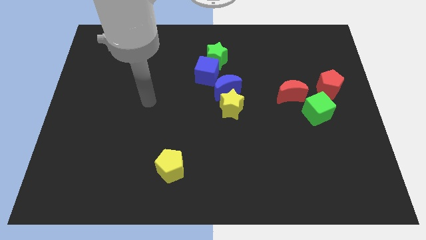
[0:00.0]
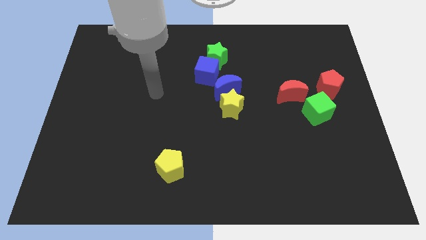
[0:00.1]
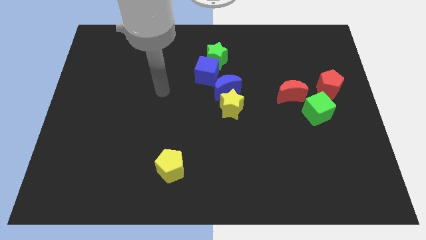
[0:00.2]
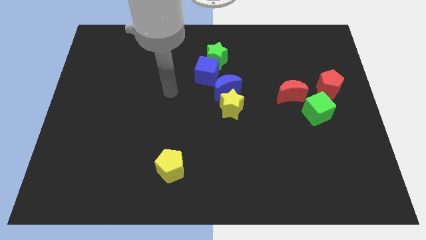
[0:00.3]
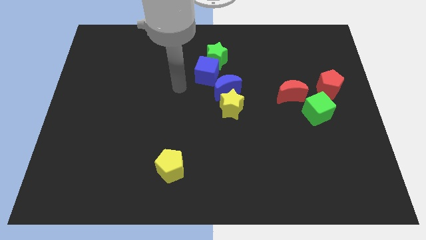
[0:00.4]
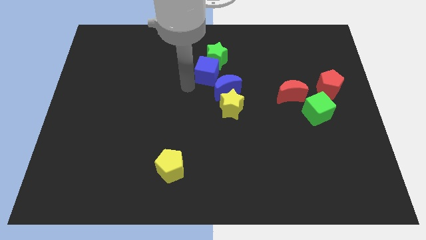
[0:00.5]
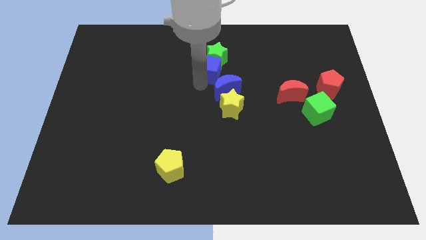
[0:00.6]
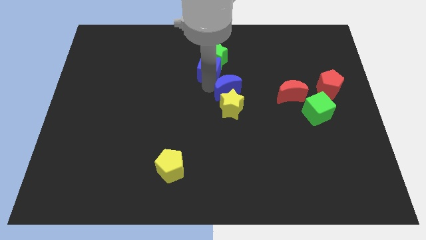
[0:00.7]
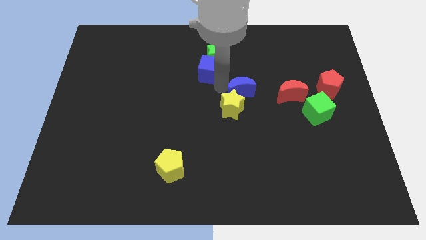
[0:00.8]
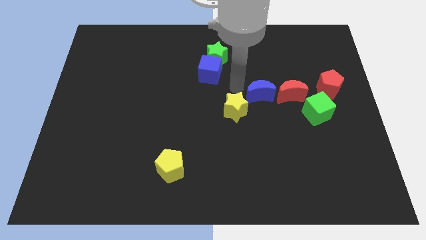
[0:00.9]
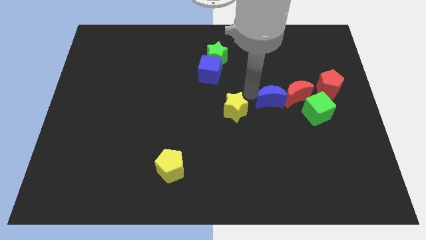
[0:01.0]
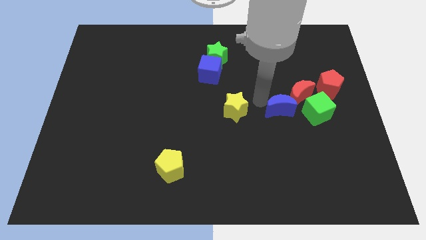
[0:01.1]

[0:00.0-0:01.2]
pull the yellow star apart from the blue moon

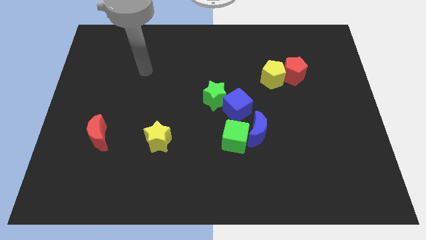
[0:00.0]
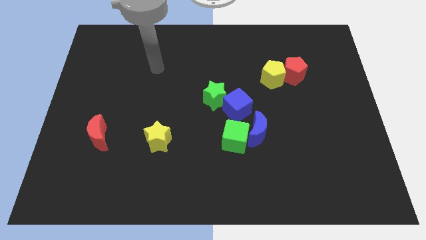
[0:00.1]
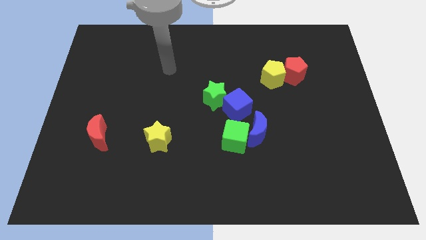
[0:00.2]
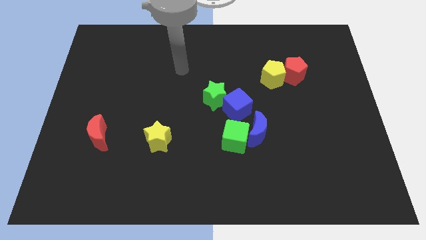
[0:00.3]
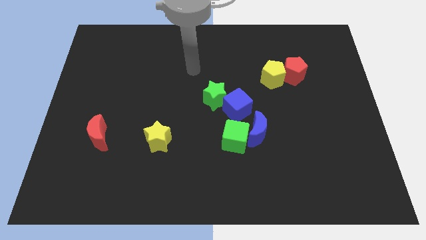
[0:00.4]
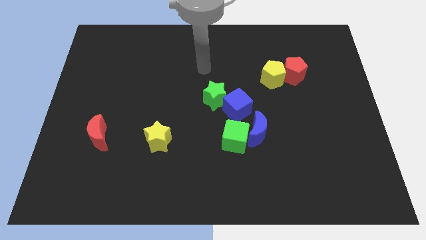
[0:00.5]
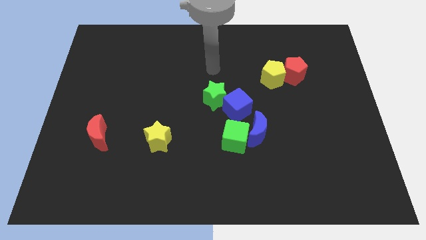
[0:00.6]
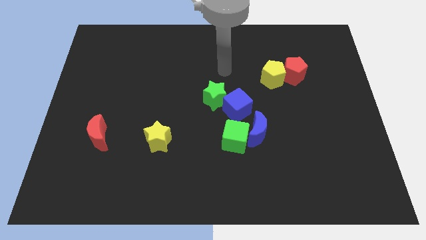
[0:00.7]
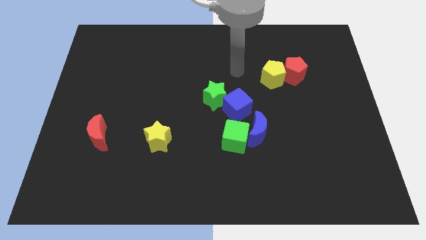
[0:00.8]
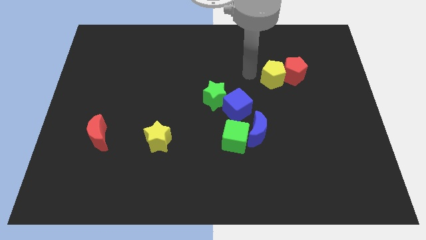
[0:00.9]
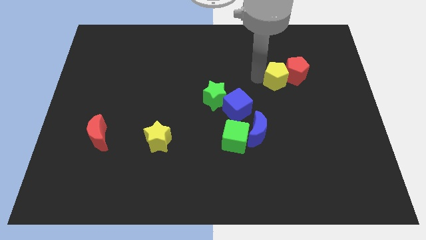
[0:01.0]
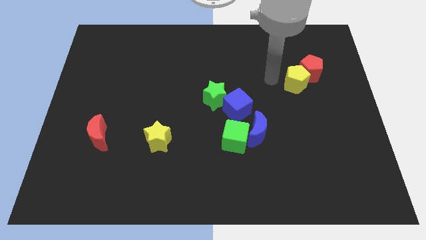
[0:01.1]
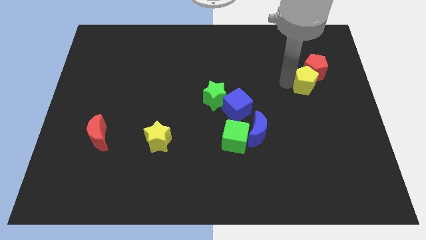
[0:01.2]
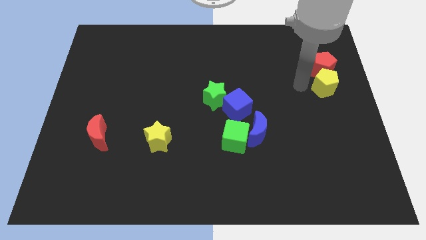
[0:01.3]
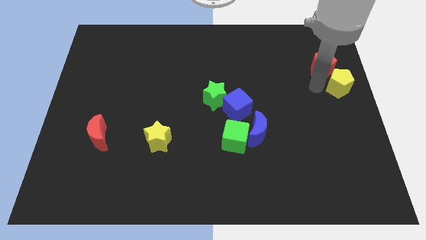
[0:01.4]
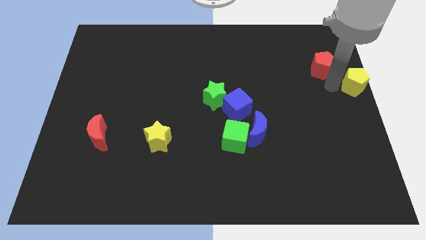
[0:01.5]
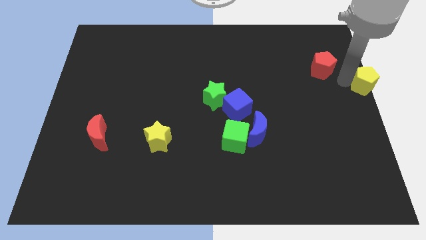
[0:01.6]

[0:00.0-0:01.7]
separate the red pentagon from the yellow pentagon

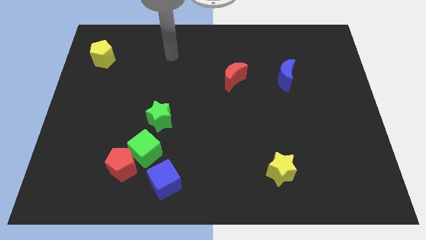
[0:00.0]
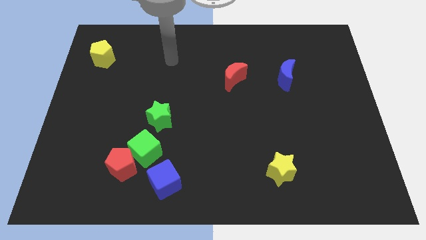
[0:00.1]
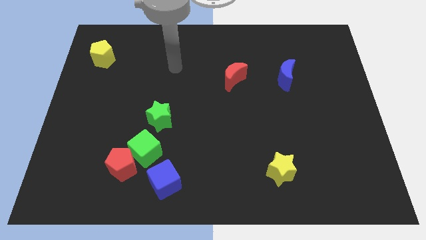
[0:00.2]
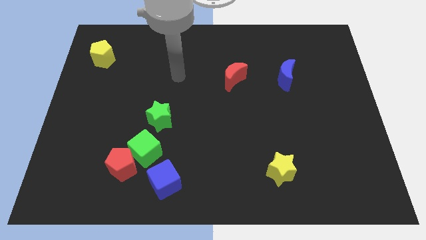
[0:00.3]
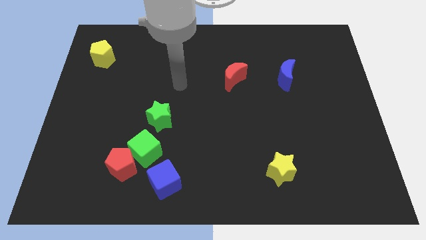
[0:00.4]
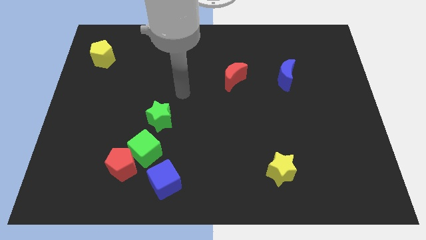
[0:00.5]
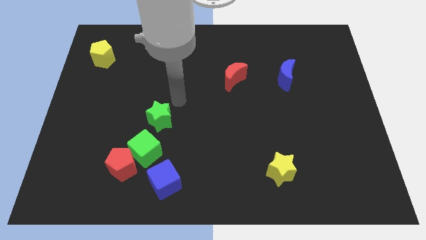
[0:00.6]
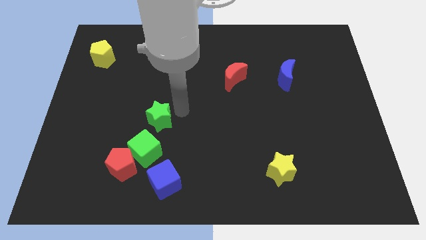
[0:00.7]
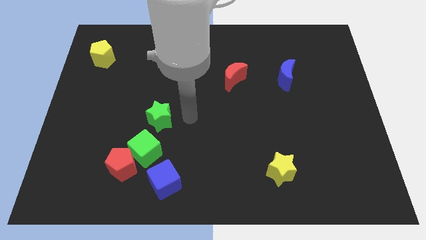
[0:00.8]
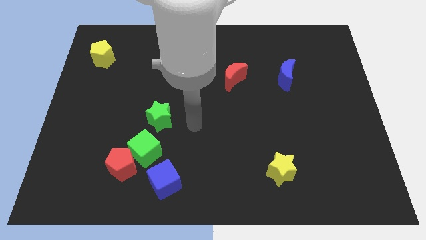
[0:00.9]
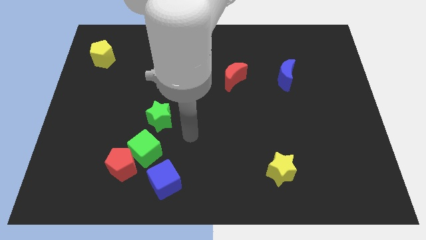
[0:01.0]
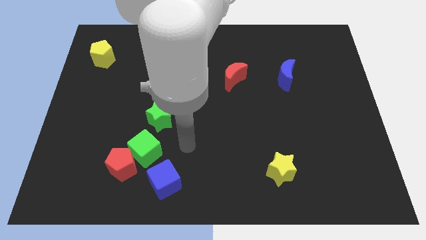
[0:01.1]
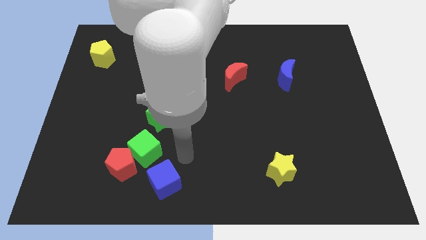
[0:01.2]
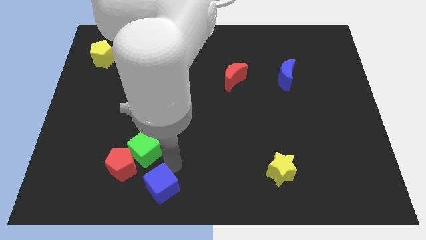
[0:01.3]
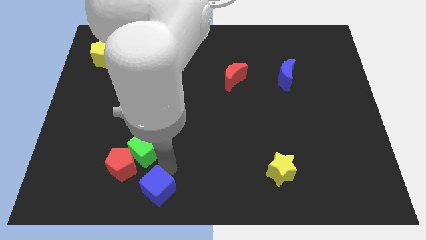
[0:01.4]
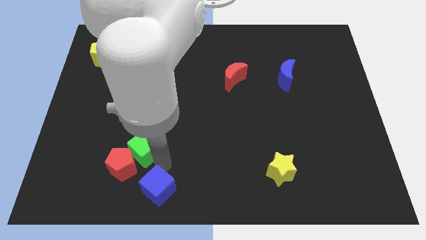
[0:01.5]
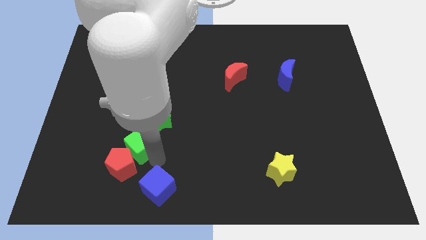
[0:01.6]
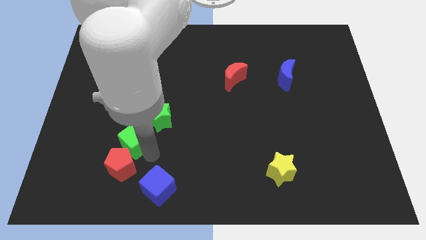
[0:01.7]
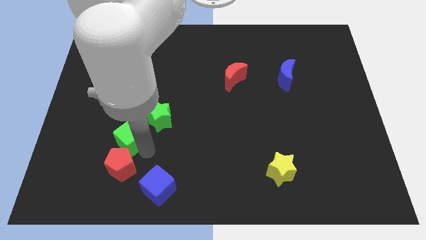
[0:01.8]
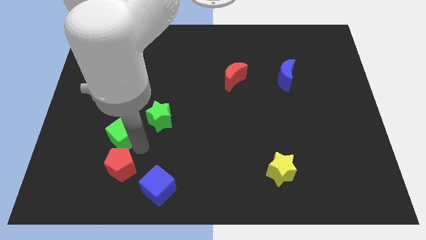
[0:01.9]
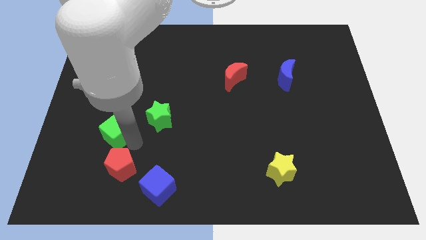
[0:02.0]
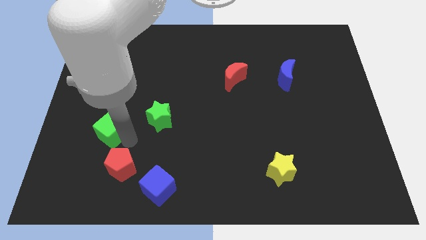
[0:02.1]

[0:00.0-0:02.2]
move the green cube away from the group

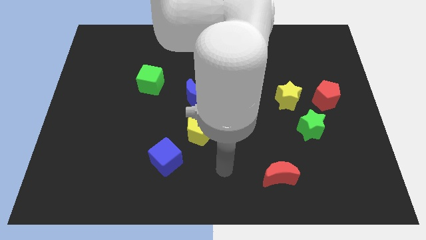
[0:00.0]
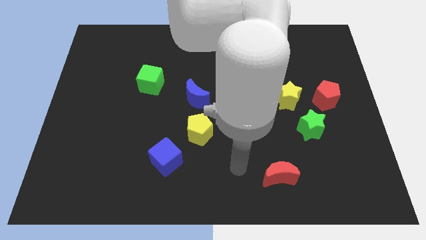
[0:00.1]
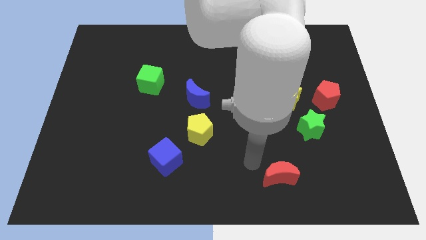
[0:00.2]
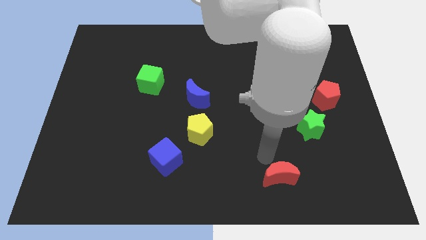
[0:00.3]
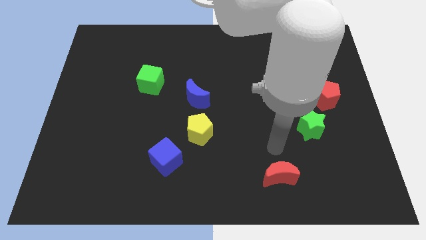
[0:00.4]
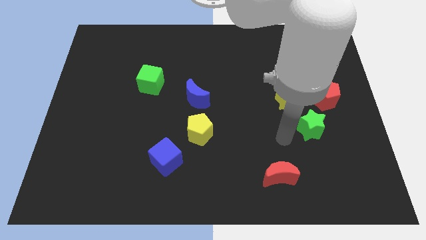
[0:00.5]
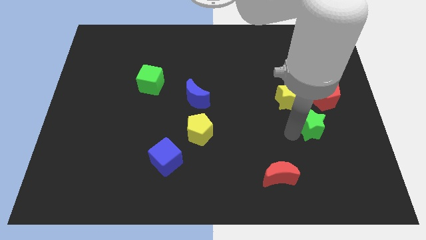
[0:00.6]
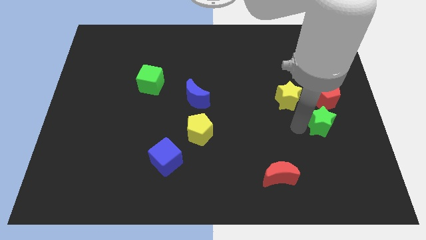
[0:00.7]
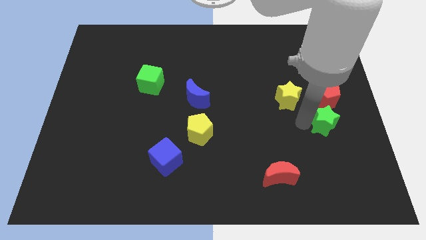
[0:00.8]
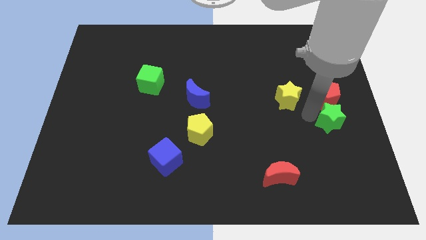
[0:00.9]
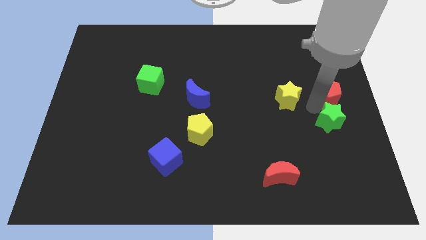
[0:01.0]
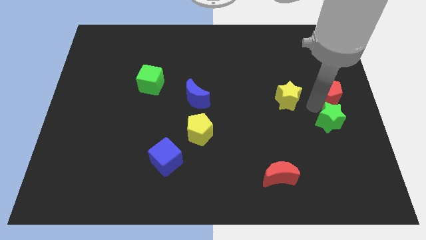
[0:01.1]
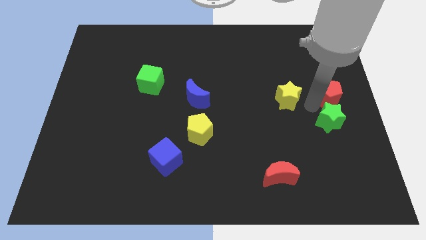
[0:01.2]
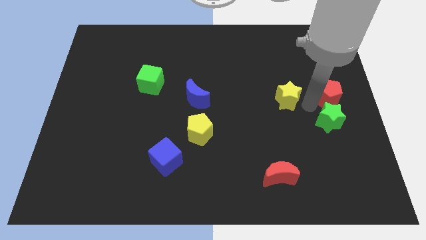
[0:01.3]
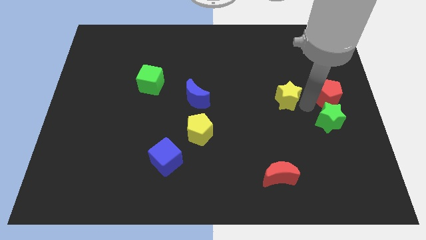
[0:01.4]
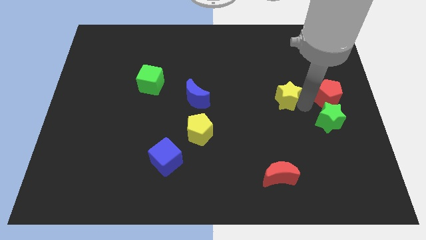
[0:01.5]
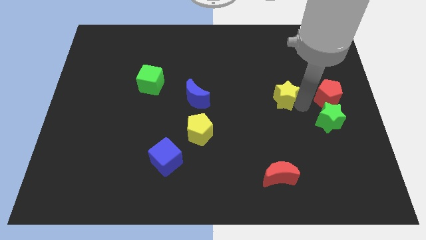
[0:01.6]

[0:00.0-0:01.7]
separate the yellow star from the red pentagon and green star

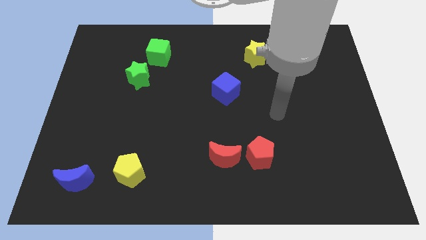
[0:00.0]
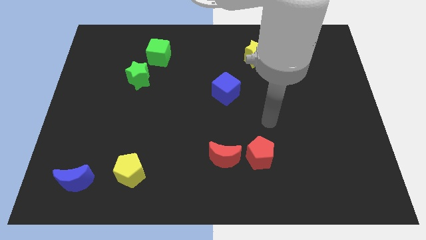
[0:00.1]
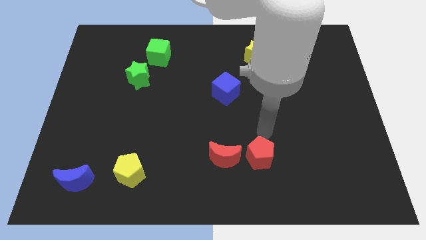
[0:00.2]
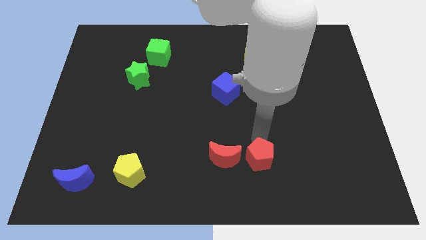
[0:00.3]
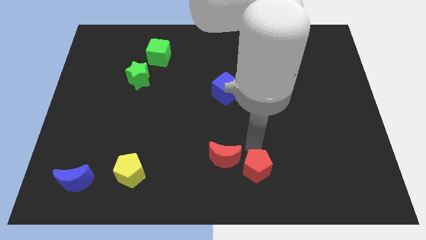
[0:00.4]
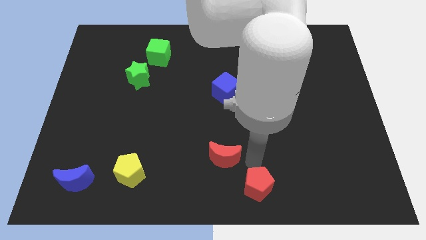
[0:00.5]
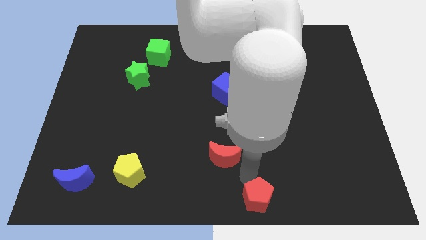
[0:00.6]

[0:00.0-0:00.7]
separate the red moon from the red pentagon

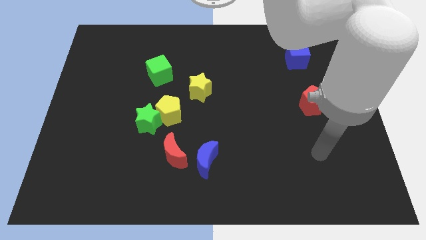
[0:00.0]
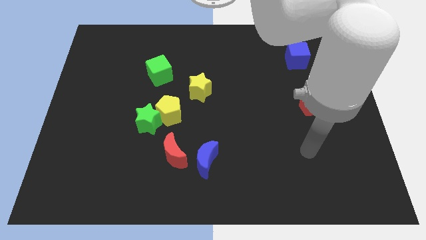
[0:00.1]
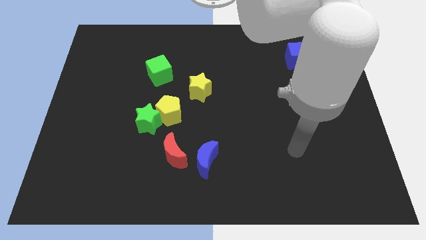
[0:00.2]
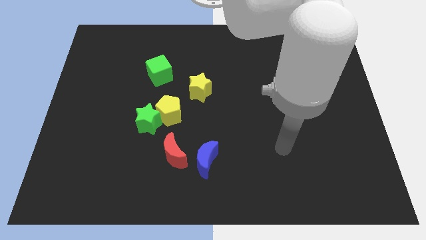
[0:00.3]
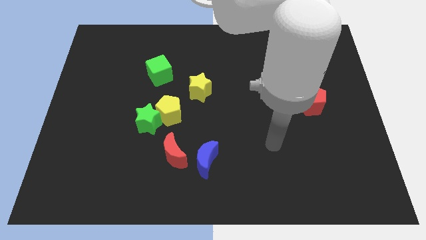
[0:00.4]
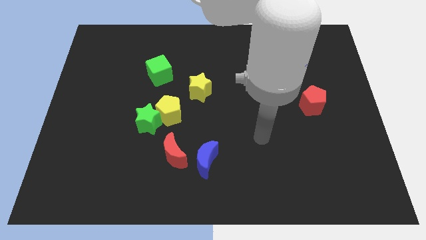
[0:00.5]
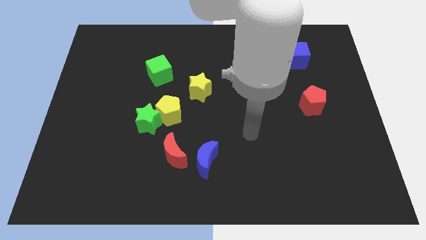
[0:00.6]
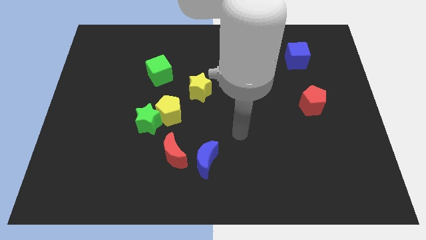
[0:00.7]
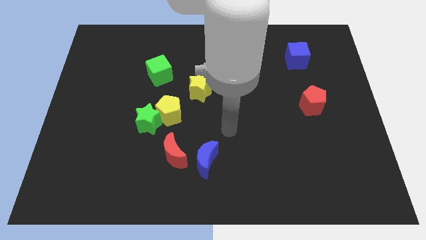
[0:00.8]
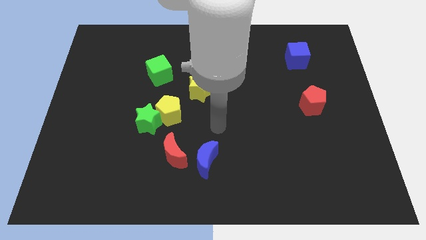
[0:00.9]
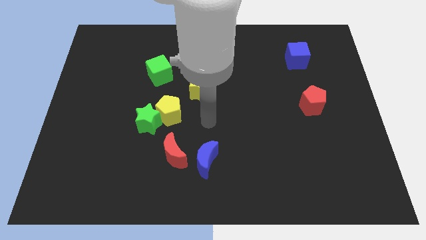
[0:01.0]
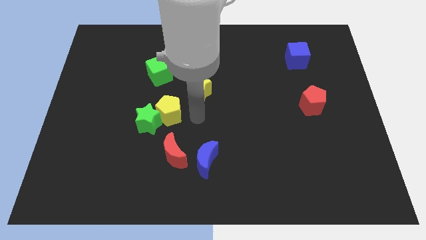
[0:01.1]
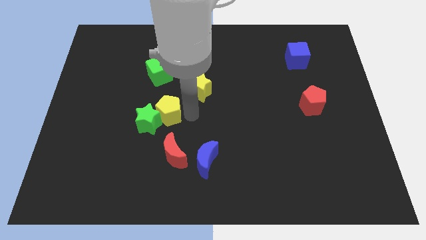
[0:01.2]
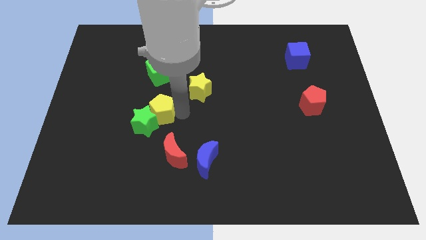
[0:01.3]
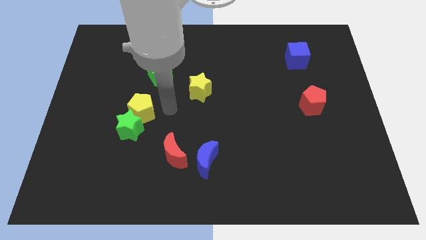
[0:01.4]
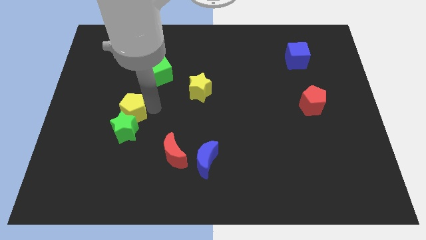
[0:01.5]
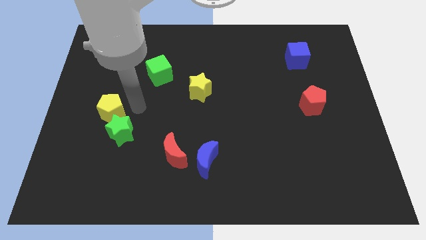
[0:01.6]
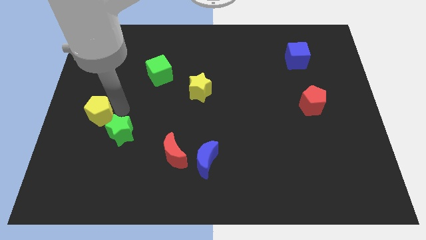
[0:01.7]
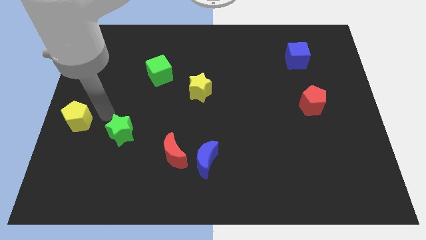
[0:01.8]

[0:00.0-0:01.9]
separate the green star from the yellow pentagon
